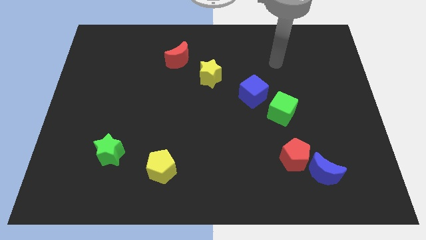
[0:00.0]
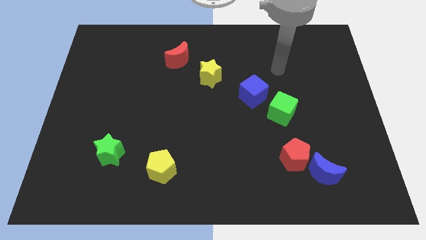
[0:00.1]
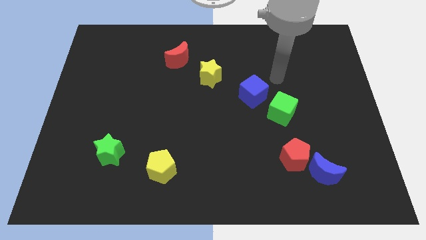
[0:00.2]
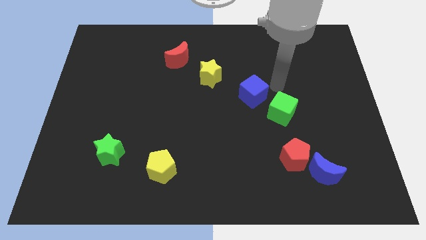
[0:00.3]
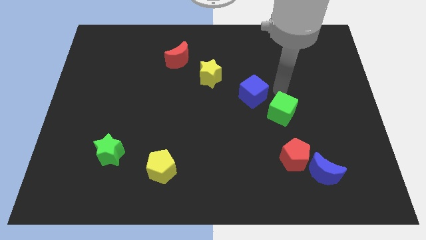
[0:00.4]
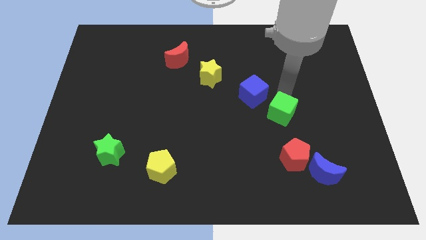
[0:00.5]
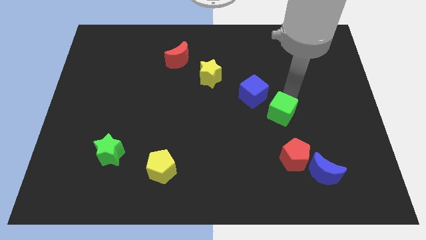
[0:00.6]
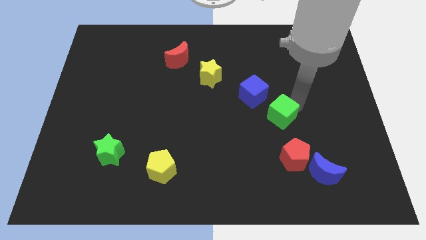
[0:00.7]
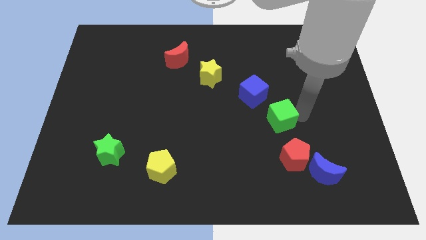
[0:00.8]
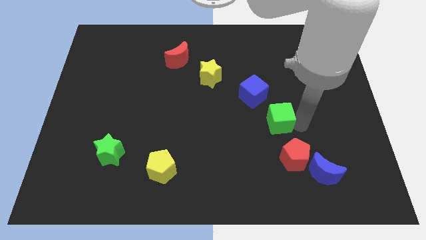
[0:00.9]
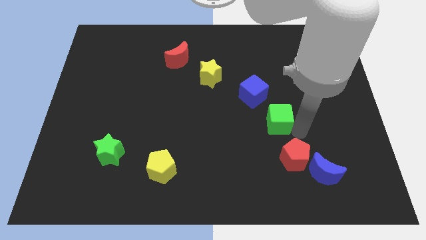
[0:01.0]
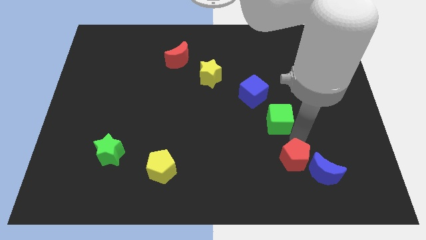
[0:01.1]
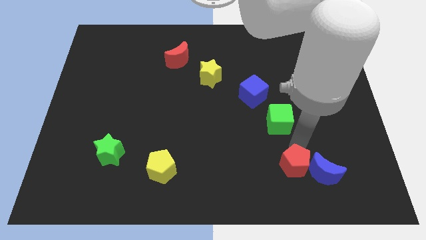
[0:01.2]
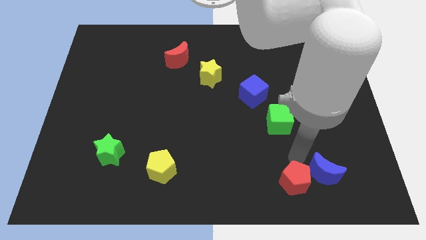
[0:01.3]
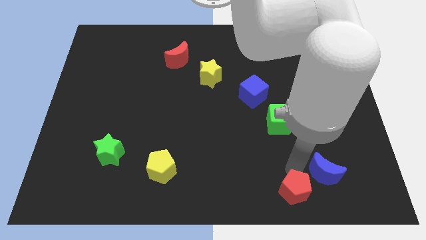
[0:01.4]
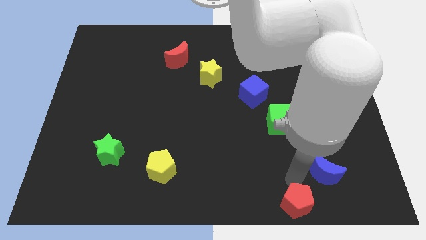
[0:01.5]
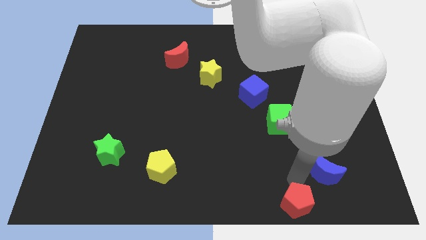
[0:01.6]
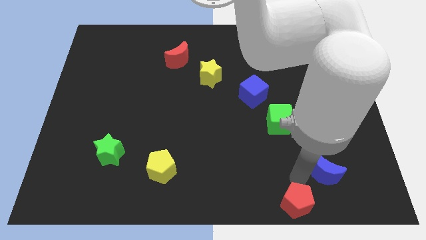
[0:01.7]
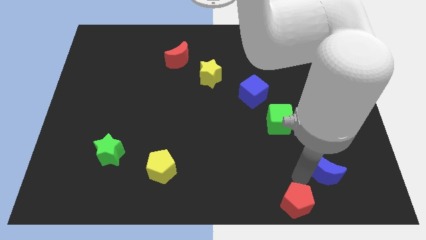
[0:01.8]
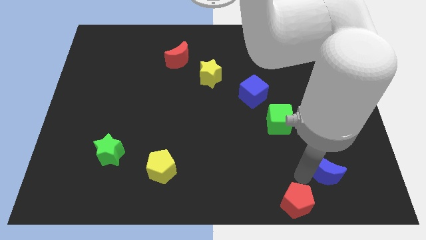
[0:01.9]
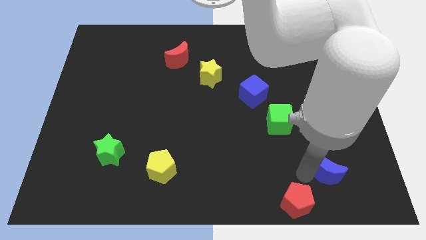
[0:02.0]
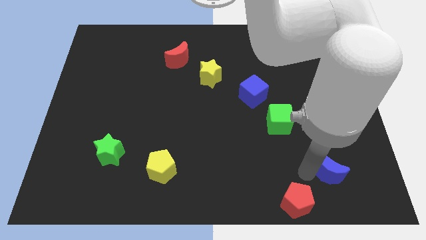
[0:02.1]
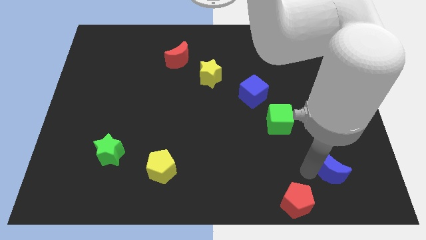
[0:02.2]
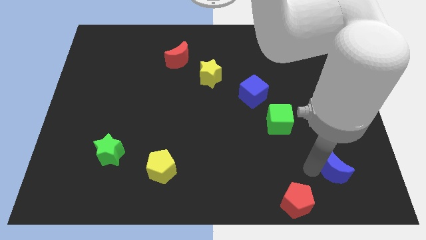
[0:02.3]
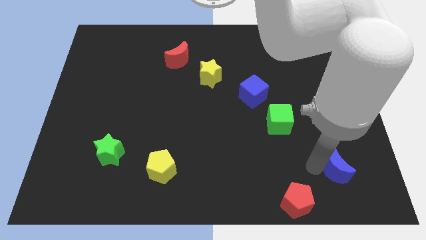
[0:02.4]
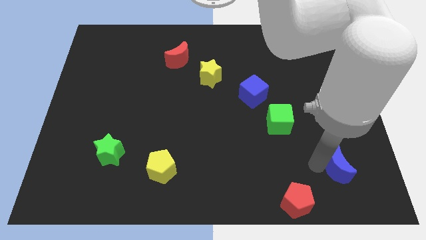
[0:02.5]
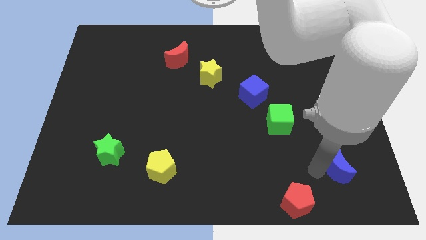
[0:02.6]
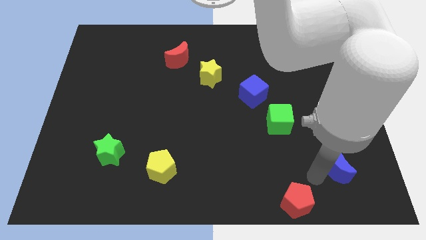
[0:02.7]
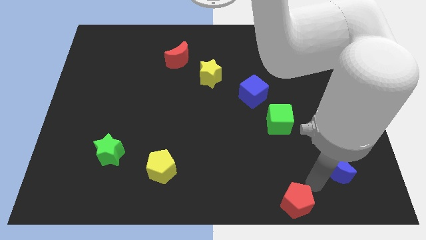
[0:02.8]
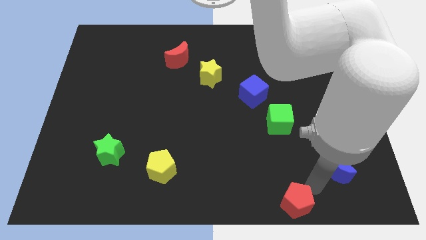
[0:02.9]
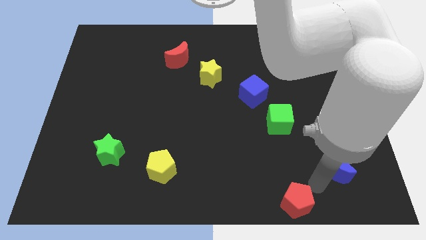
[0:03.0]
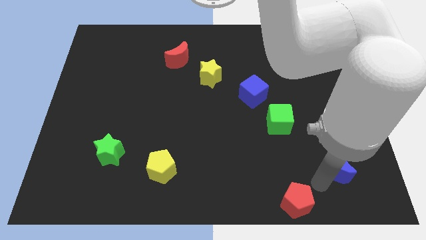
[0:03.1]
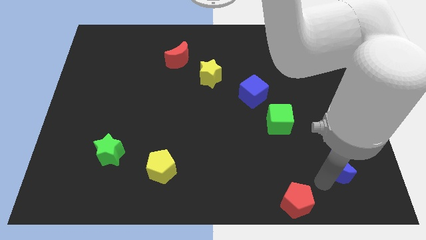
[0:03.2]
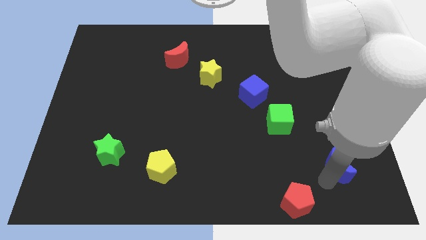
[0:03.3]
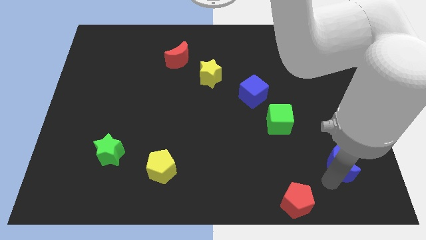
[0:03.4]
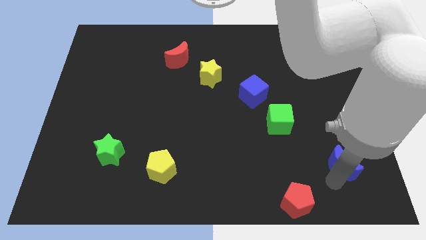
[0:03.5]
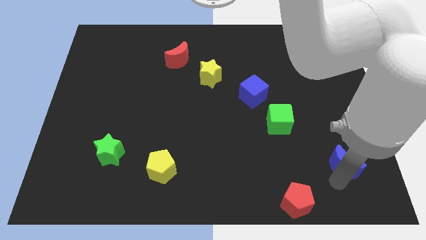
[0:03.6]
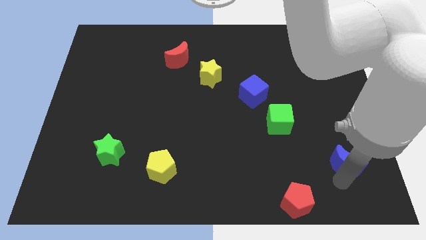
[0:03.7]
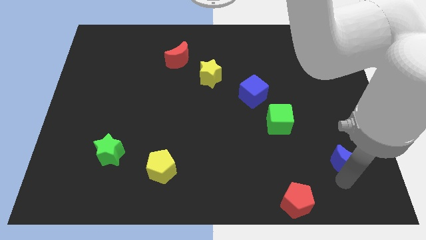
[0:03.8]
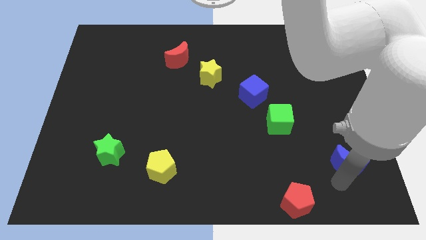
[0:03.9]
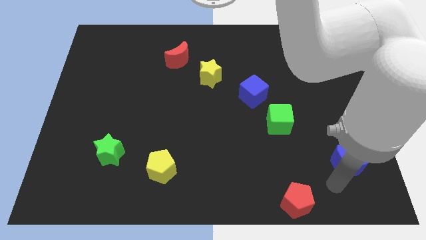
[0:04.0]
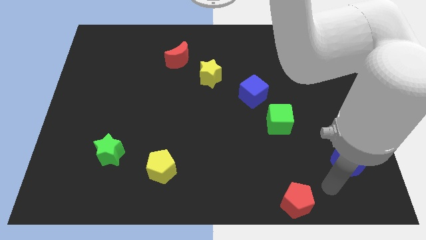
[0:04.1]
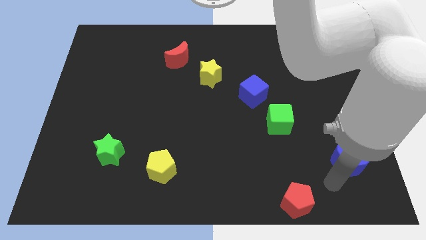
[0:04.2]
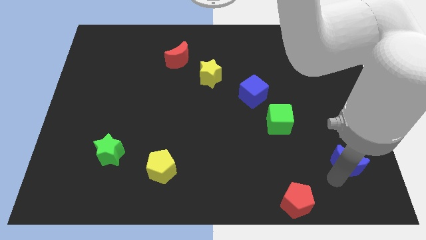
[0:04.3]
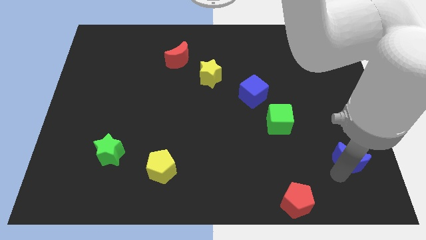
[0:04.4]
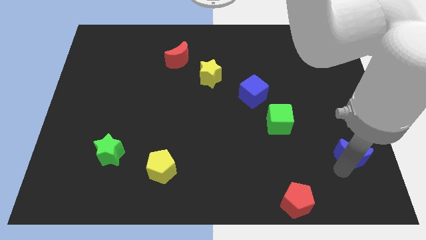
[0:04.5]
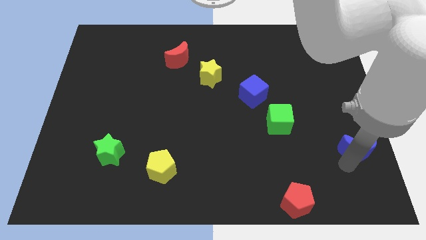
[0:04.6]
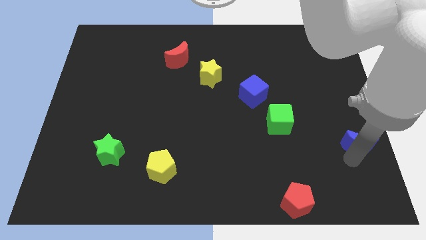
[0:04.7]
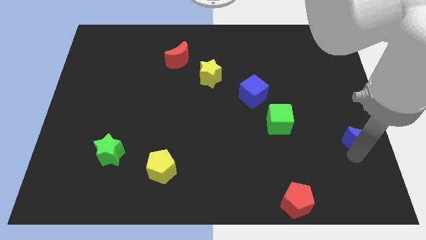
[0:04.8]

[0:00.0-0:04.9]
move the blue moon to the right side of the board

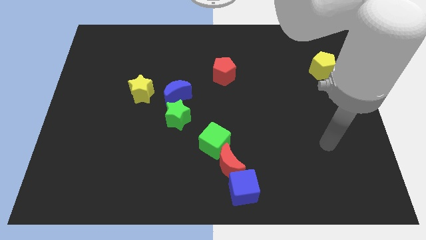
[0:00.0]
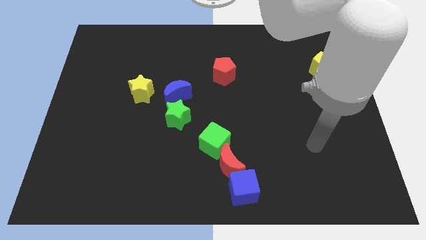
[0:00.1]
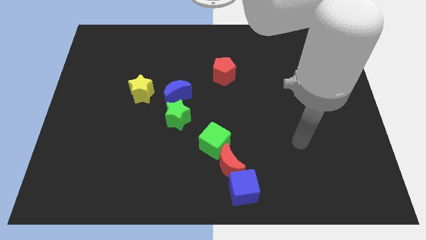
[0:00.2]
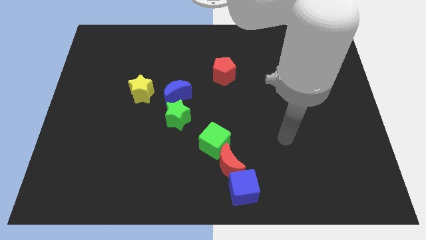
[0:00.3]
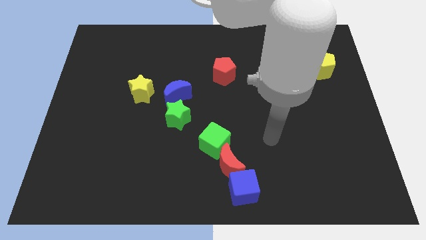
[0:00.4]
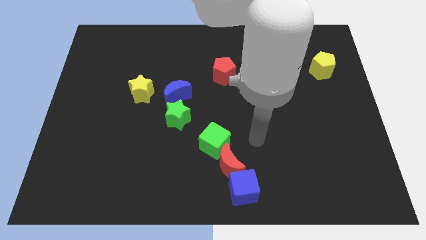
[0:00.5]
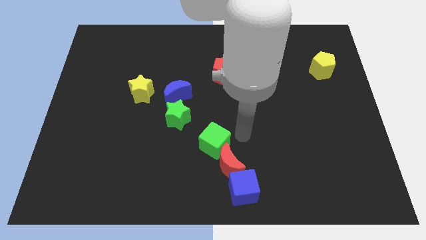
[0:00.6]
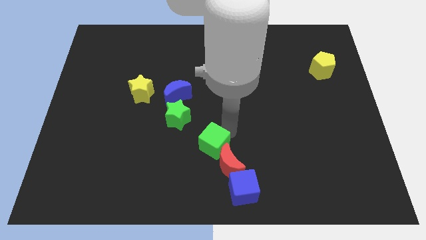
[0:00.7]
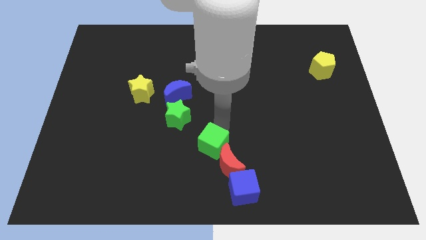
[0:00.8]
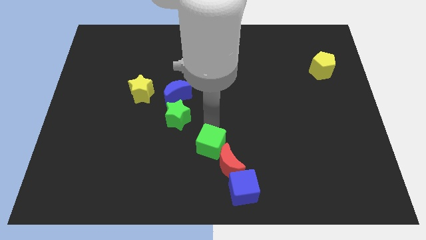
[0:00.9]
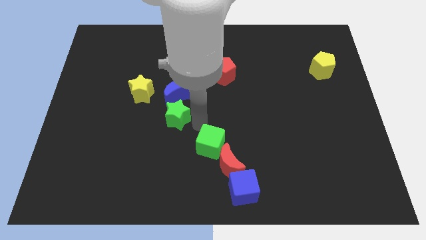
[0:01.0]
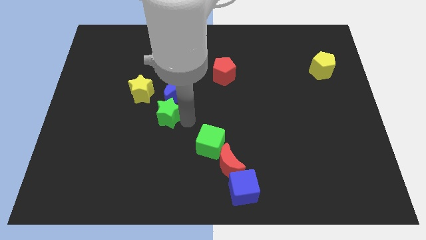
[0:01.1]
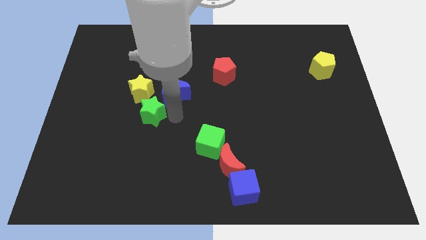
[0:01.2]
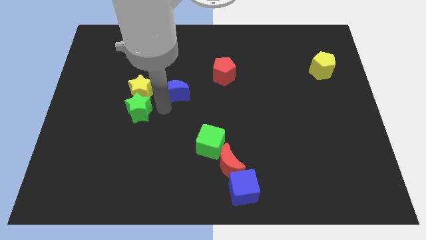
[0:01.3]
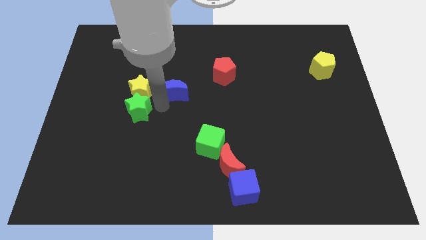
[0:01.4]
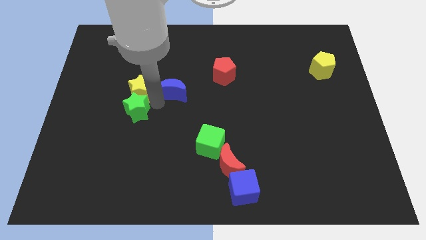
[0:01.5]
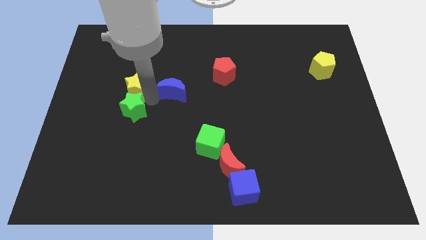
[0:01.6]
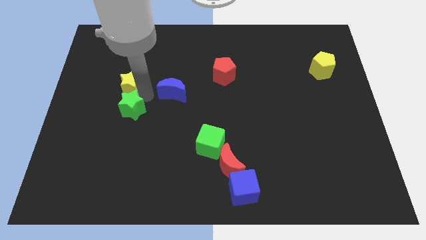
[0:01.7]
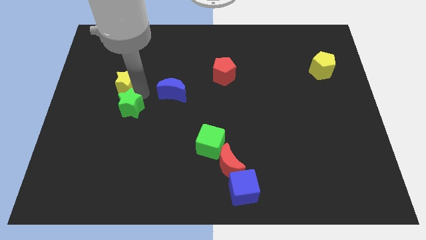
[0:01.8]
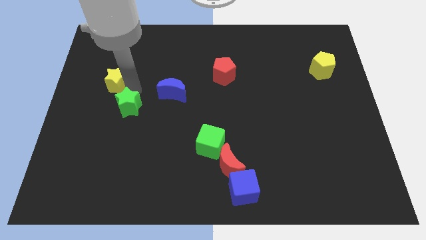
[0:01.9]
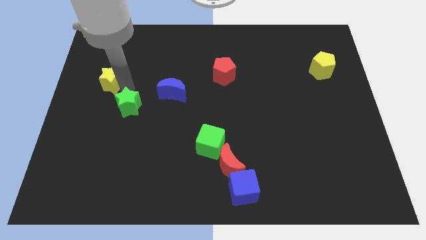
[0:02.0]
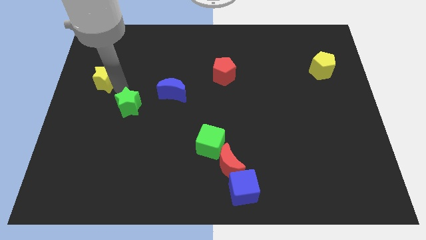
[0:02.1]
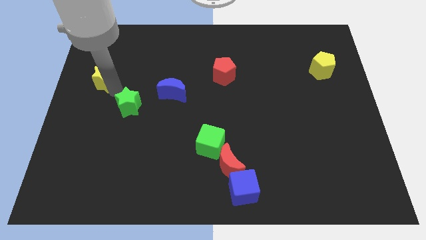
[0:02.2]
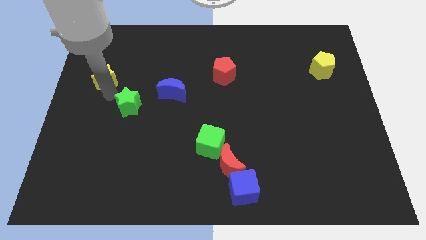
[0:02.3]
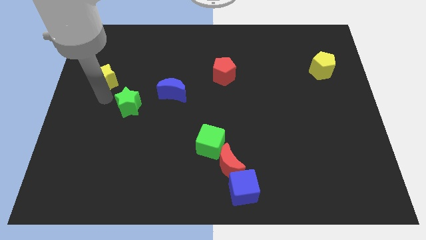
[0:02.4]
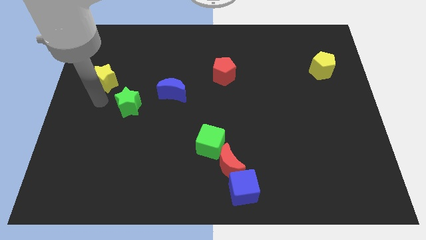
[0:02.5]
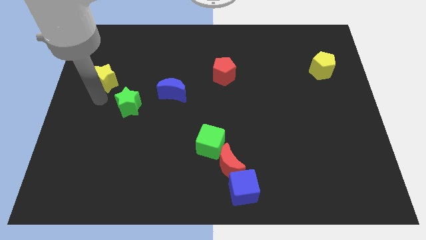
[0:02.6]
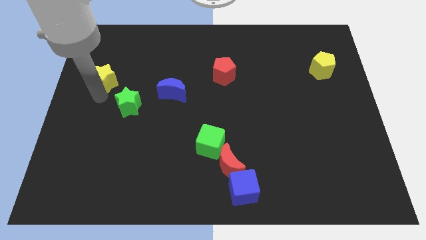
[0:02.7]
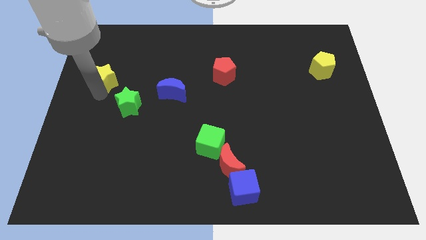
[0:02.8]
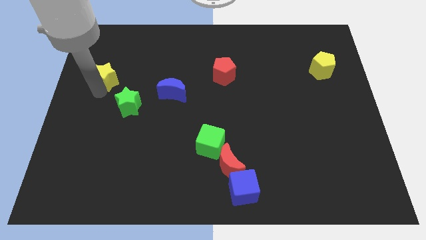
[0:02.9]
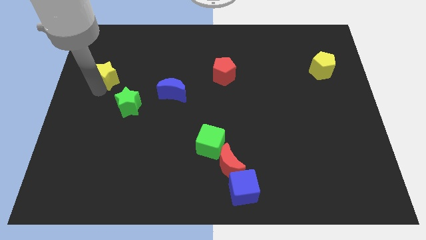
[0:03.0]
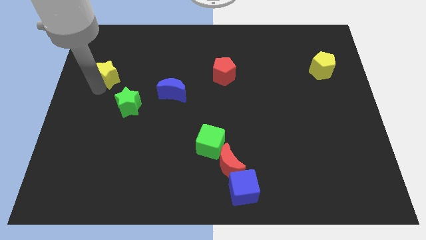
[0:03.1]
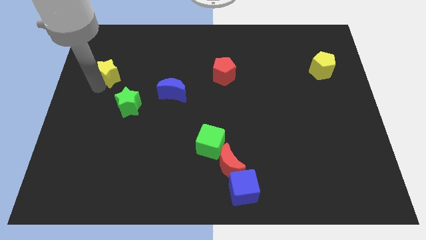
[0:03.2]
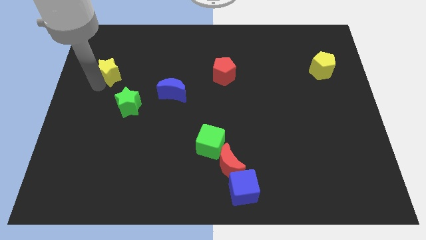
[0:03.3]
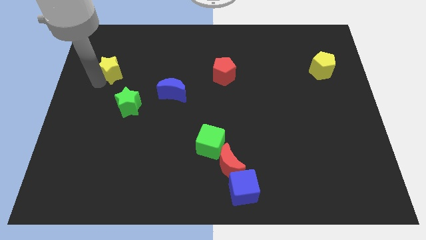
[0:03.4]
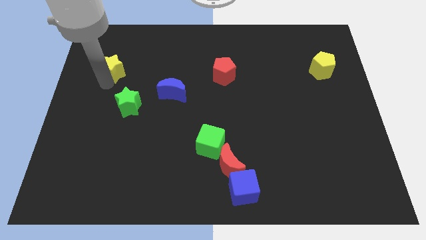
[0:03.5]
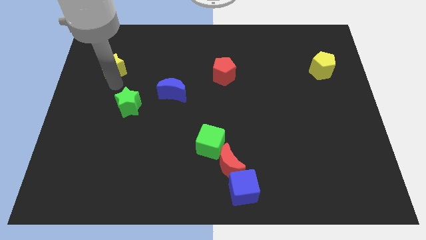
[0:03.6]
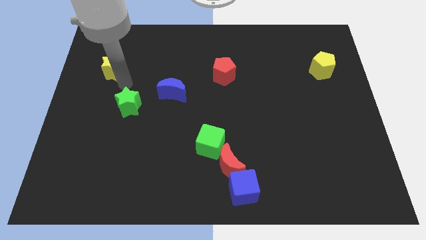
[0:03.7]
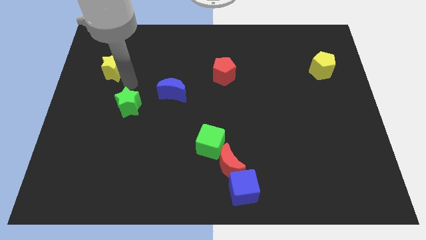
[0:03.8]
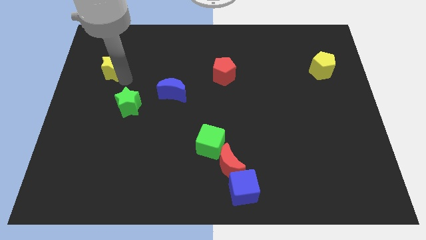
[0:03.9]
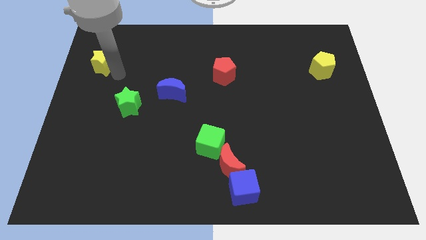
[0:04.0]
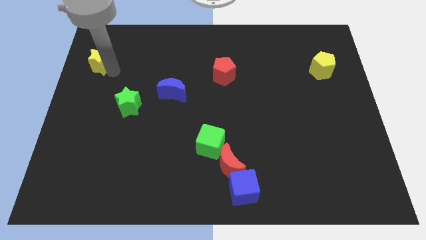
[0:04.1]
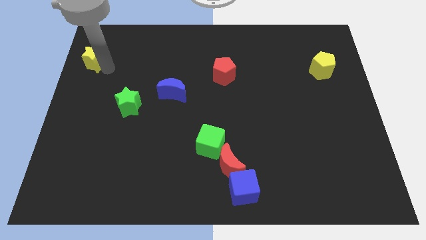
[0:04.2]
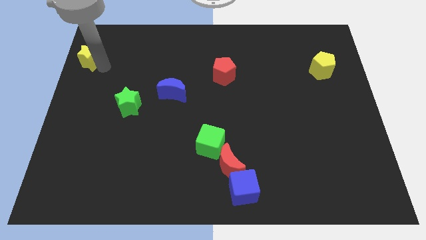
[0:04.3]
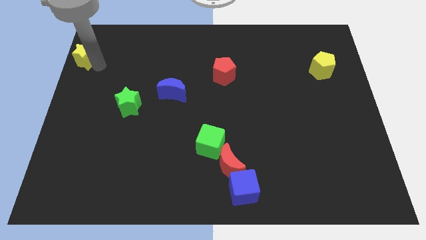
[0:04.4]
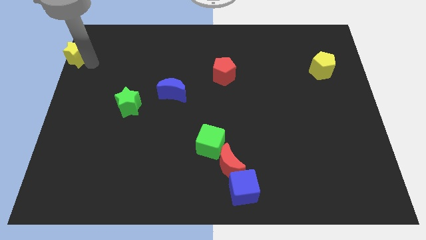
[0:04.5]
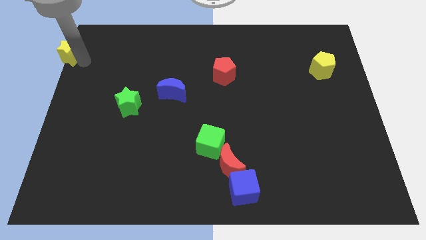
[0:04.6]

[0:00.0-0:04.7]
put the yellow star to the top left corner
